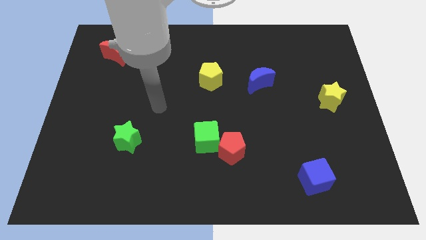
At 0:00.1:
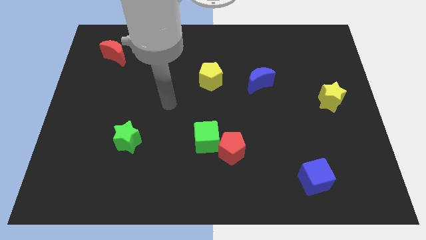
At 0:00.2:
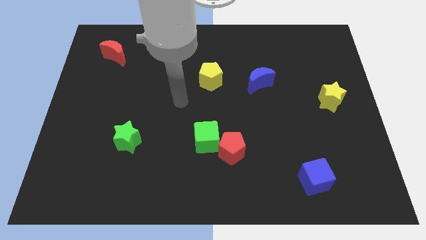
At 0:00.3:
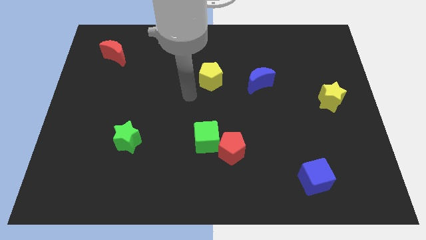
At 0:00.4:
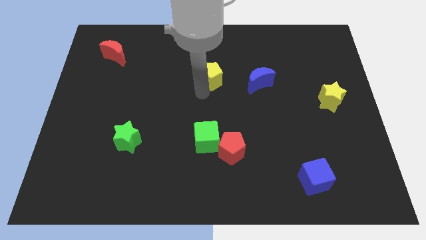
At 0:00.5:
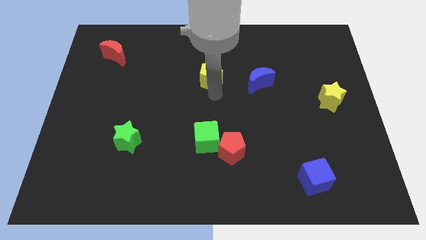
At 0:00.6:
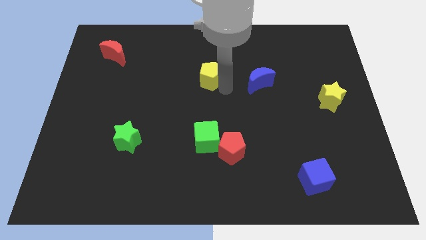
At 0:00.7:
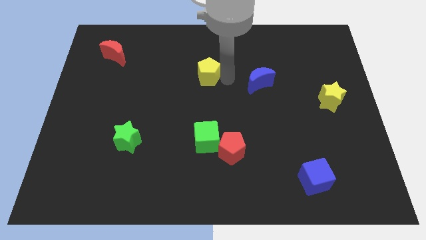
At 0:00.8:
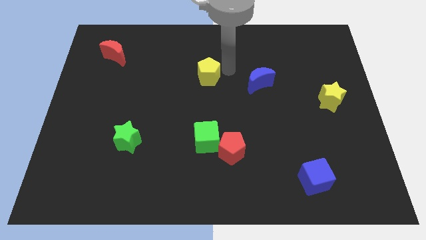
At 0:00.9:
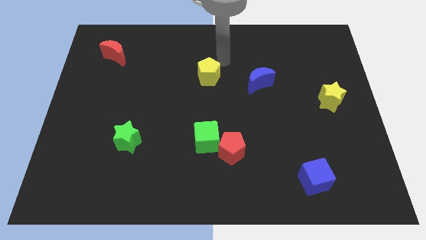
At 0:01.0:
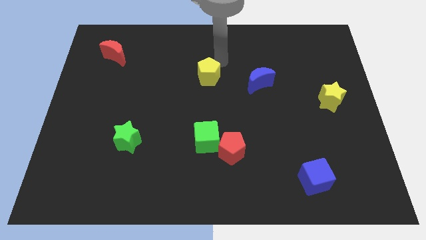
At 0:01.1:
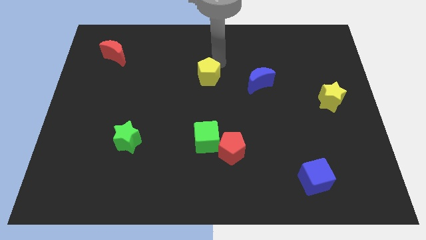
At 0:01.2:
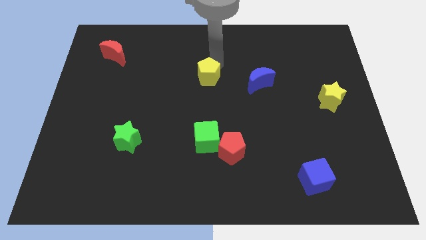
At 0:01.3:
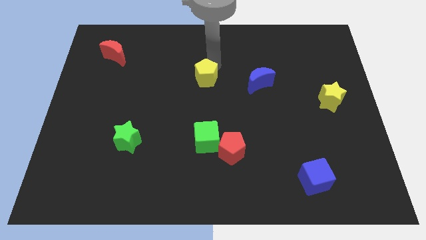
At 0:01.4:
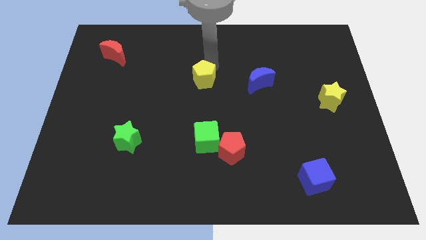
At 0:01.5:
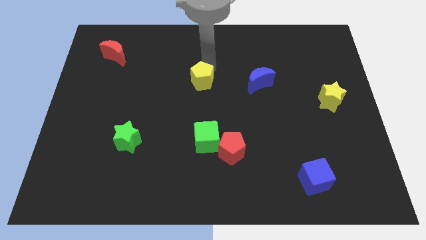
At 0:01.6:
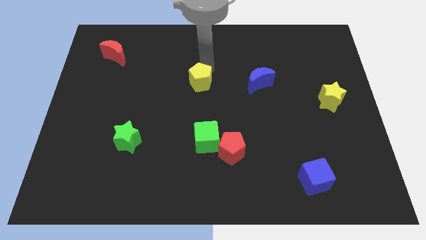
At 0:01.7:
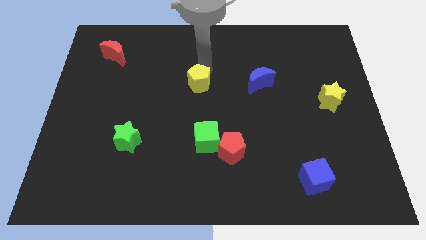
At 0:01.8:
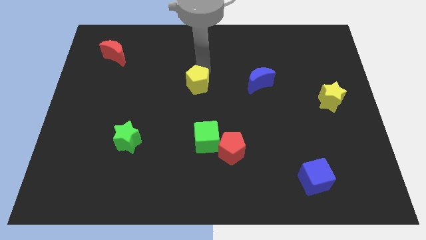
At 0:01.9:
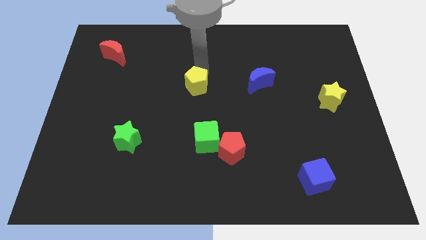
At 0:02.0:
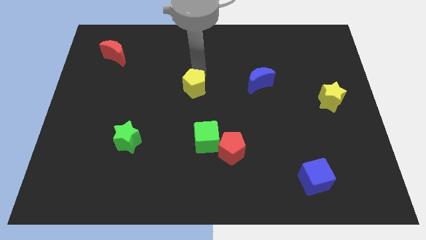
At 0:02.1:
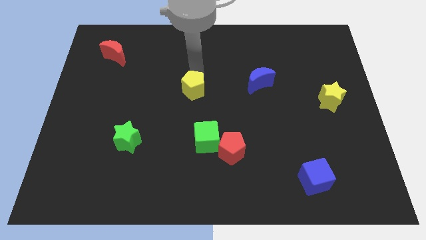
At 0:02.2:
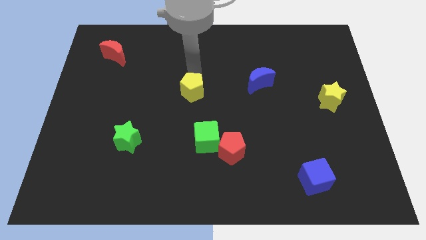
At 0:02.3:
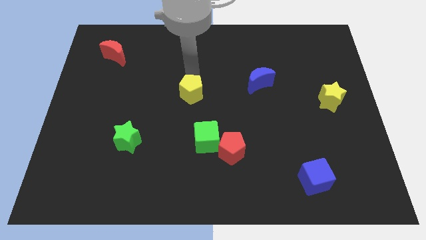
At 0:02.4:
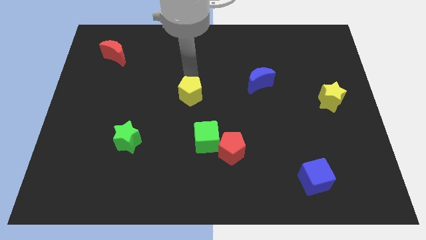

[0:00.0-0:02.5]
slide the yellow pentagon downwards and left a bit

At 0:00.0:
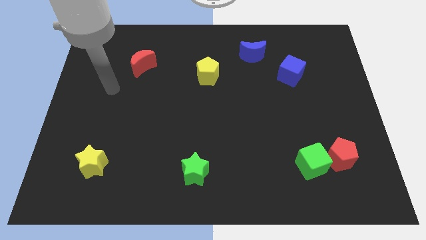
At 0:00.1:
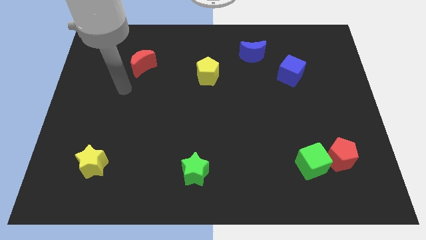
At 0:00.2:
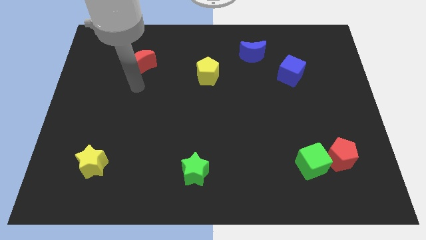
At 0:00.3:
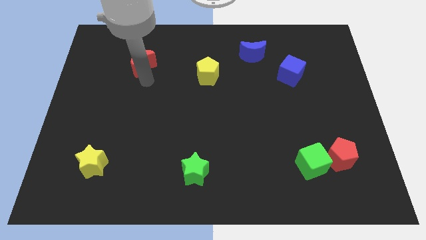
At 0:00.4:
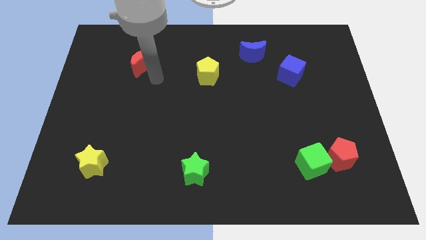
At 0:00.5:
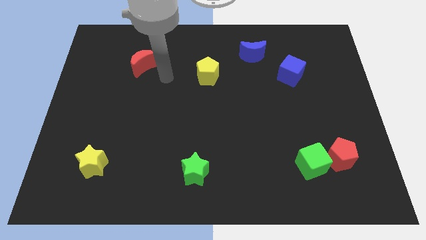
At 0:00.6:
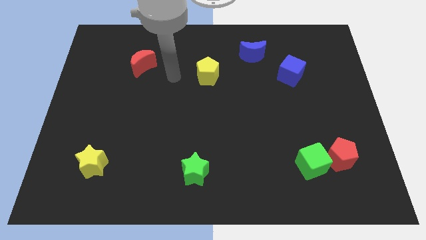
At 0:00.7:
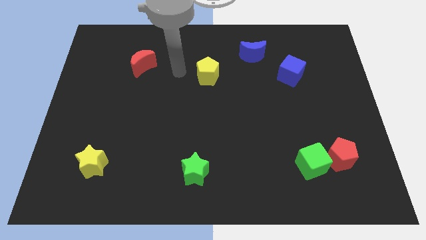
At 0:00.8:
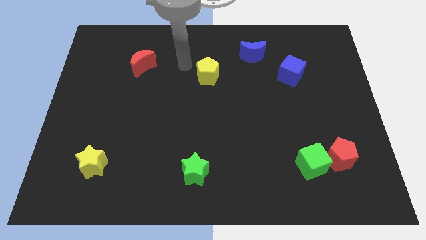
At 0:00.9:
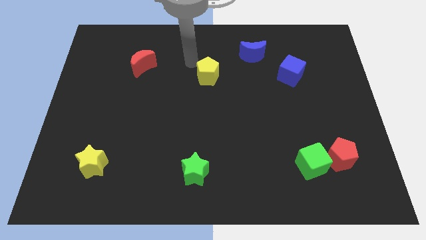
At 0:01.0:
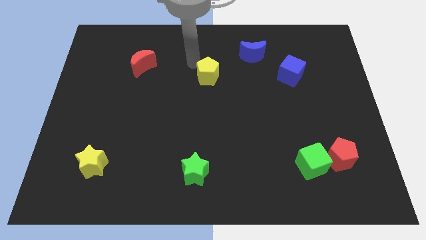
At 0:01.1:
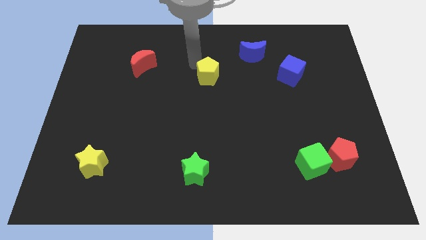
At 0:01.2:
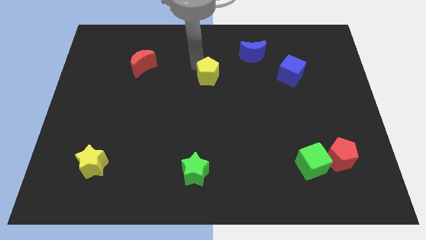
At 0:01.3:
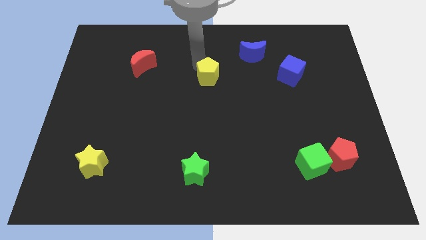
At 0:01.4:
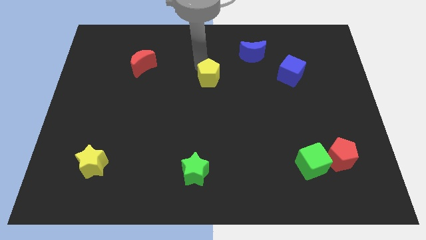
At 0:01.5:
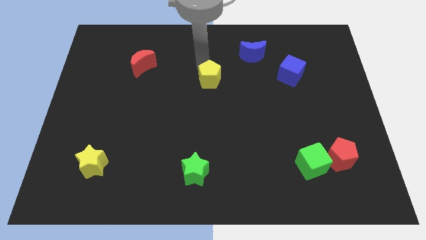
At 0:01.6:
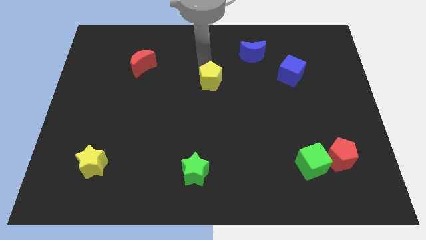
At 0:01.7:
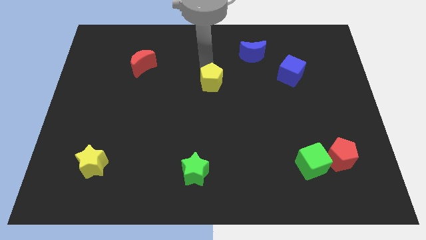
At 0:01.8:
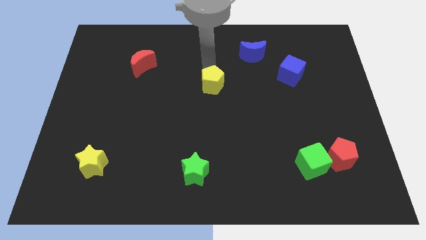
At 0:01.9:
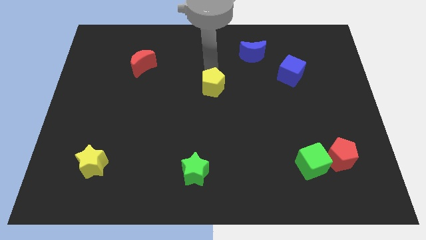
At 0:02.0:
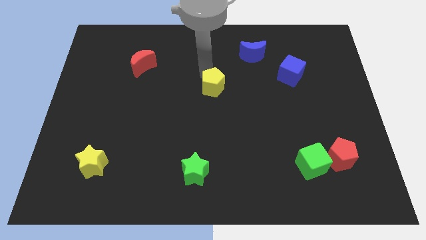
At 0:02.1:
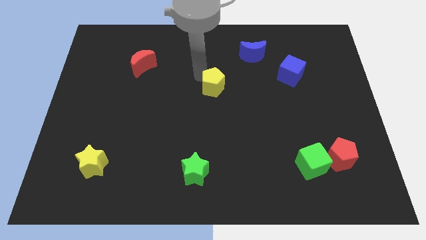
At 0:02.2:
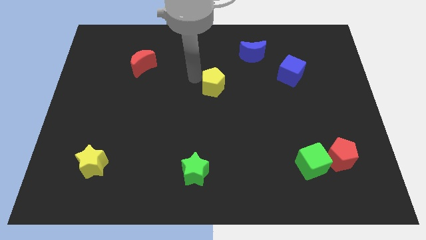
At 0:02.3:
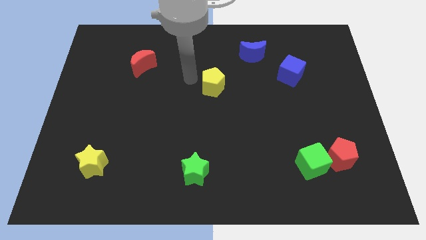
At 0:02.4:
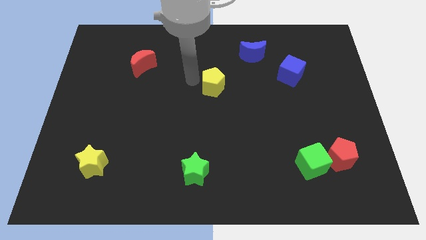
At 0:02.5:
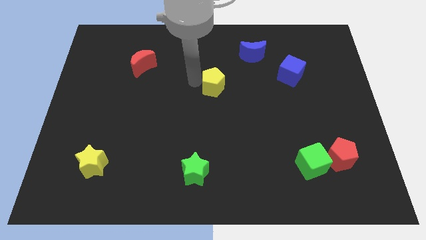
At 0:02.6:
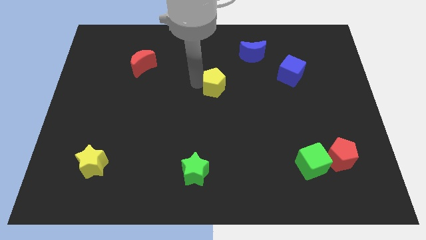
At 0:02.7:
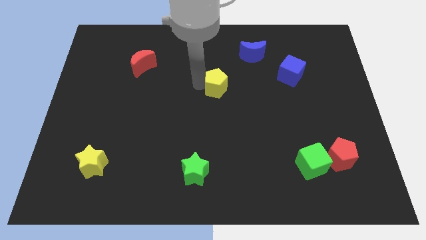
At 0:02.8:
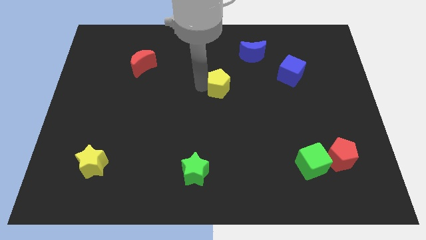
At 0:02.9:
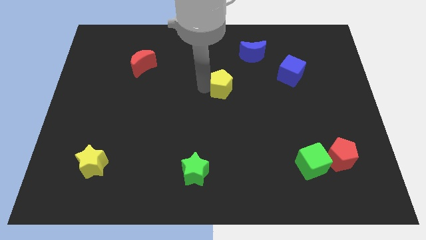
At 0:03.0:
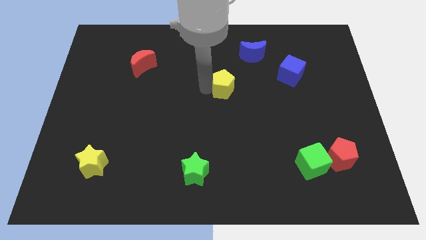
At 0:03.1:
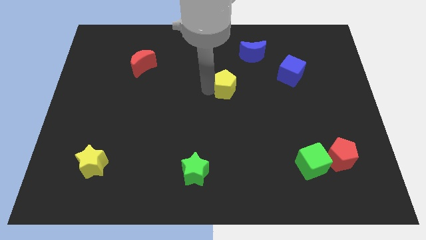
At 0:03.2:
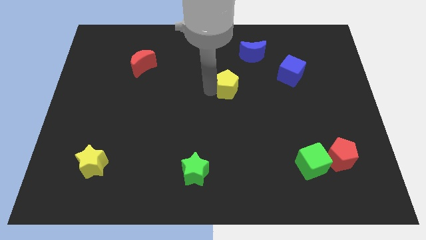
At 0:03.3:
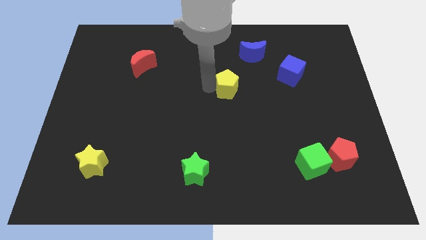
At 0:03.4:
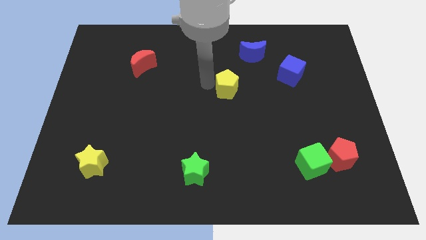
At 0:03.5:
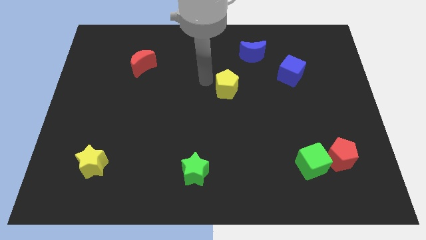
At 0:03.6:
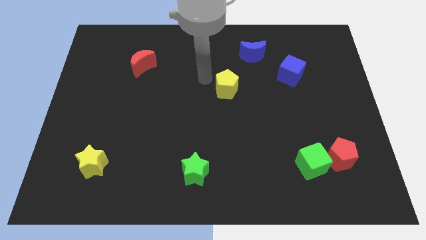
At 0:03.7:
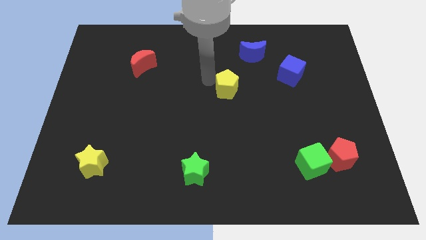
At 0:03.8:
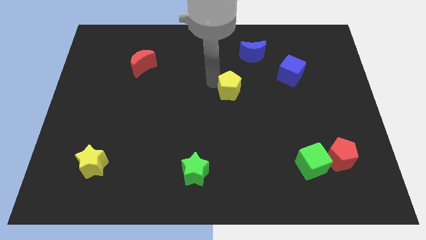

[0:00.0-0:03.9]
move the yellow pentagon a little bit downwards and to the right

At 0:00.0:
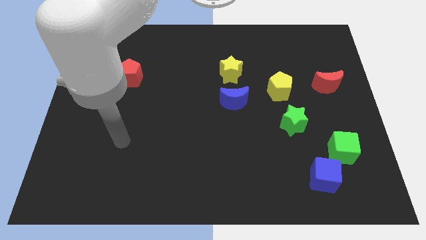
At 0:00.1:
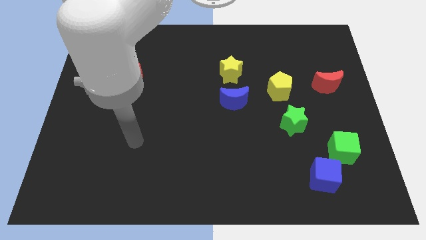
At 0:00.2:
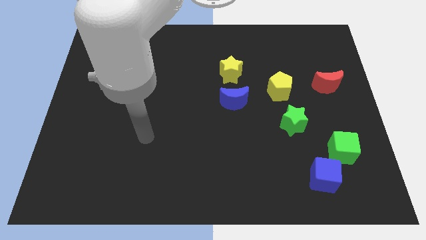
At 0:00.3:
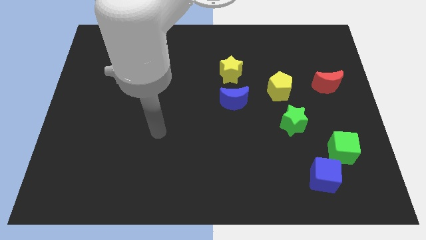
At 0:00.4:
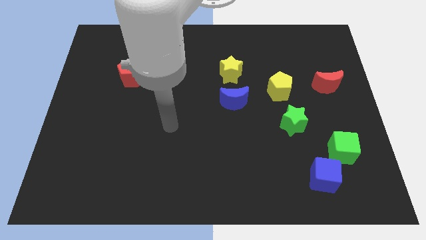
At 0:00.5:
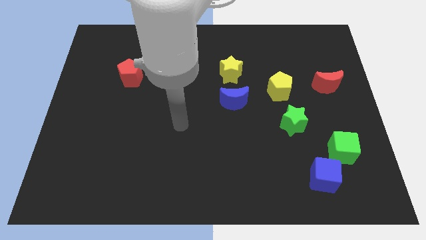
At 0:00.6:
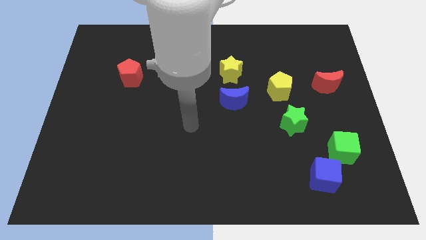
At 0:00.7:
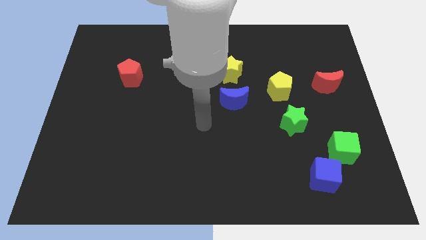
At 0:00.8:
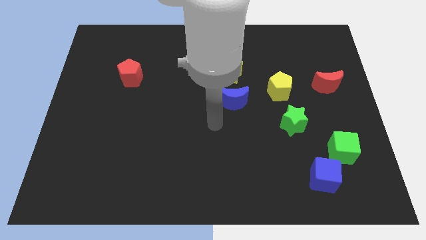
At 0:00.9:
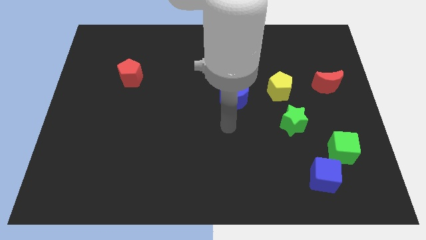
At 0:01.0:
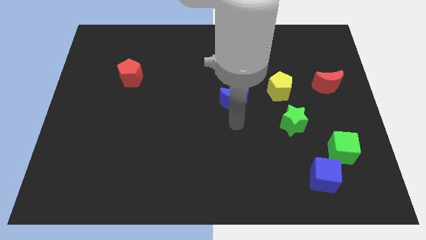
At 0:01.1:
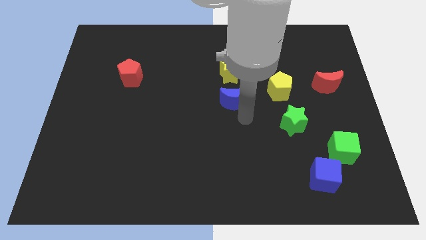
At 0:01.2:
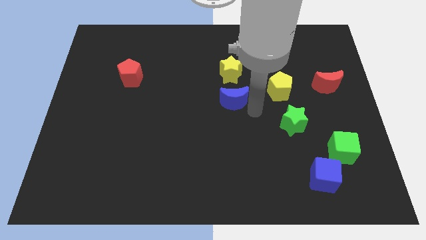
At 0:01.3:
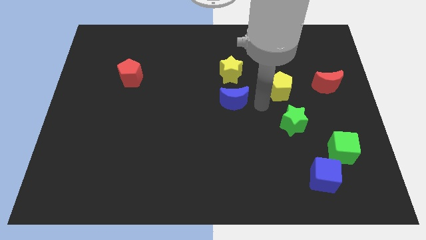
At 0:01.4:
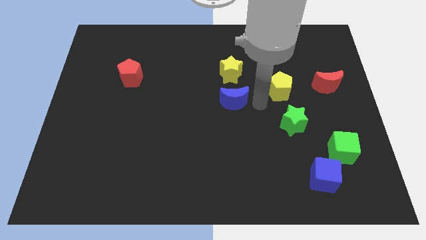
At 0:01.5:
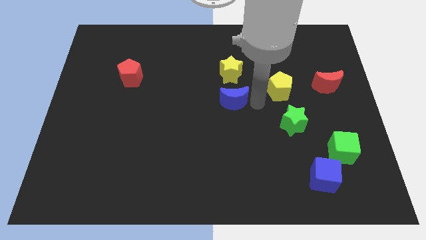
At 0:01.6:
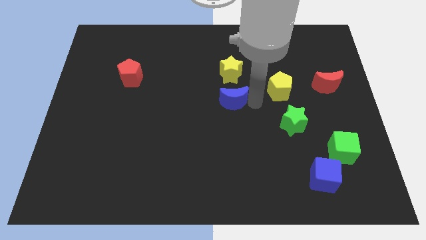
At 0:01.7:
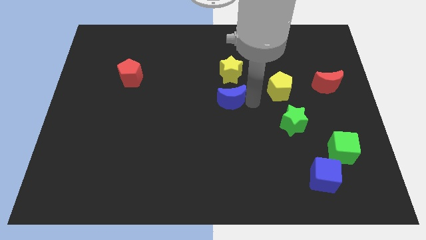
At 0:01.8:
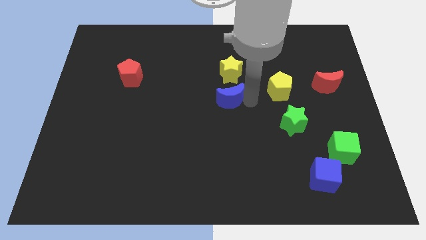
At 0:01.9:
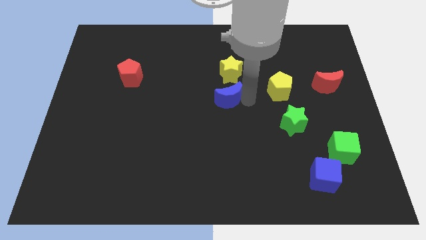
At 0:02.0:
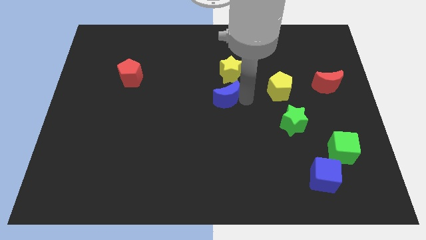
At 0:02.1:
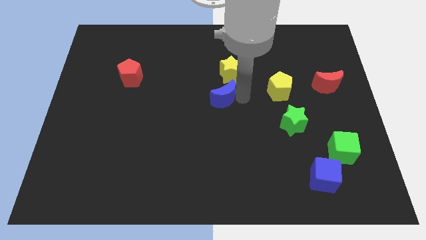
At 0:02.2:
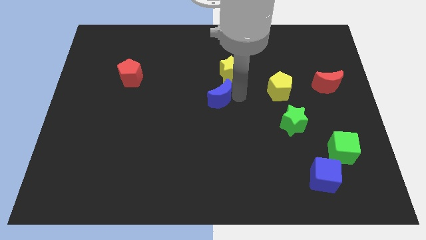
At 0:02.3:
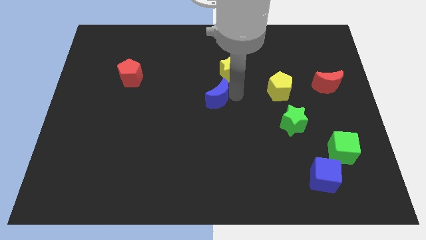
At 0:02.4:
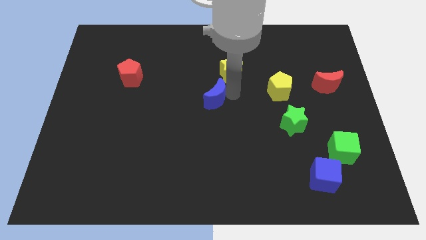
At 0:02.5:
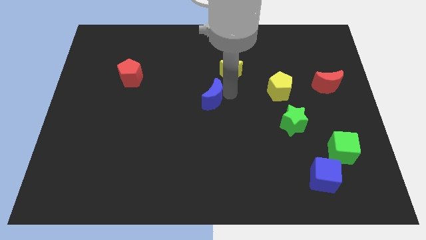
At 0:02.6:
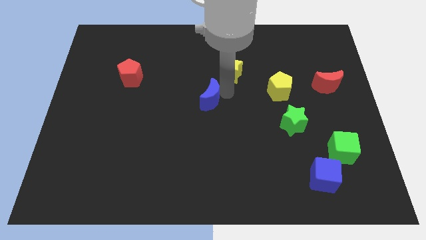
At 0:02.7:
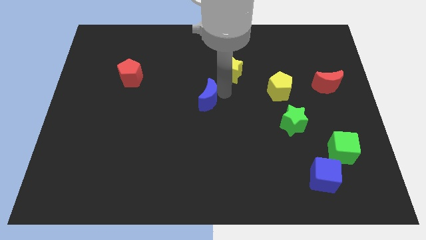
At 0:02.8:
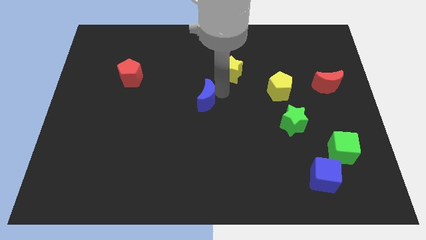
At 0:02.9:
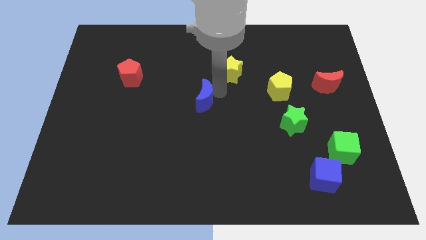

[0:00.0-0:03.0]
move the blue moon left a bit
